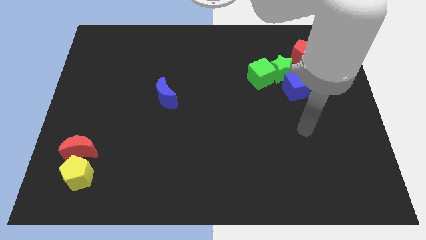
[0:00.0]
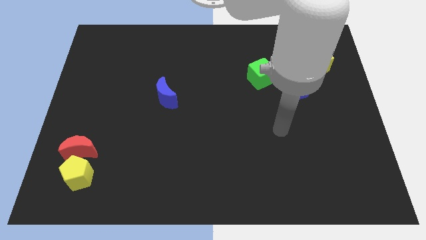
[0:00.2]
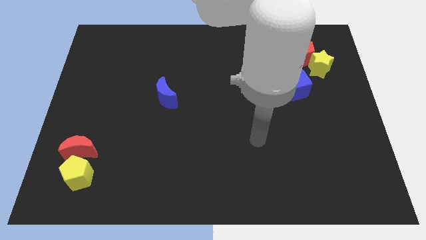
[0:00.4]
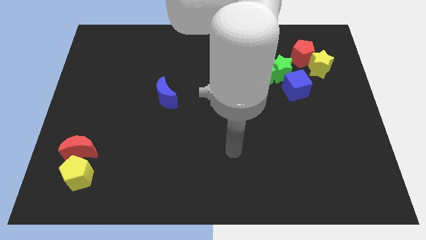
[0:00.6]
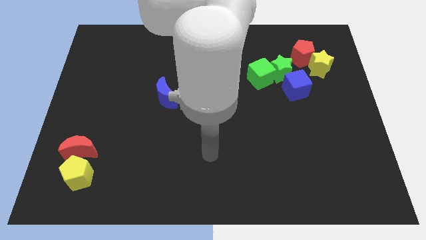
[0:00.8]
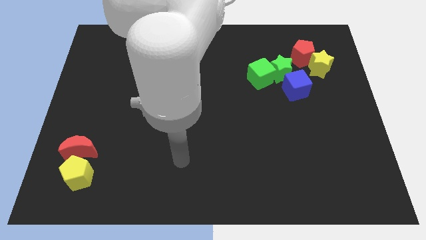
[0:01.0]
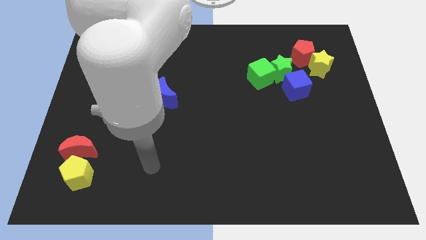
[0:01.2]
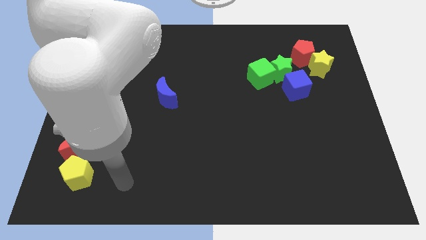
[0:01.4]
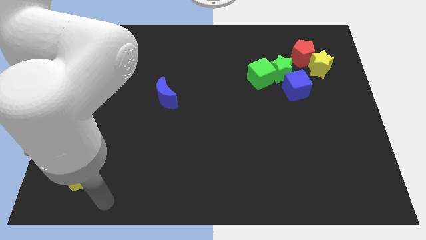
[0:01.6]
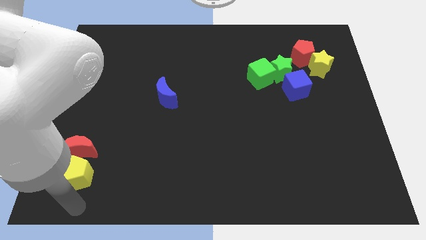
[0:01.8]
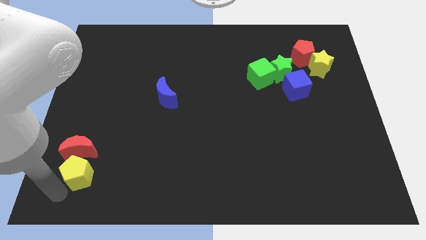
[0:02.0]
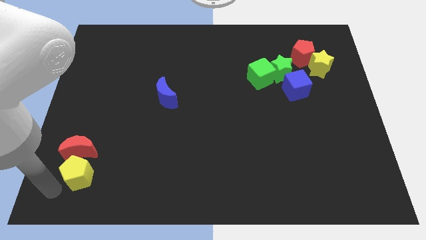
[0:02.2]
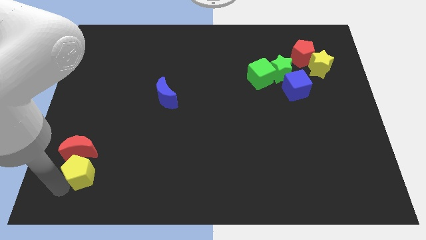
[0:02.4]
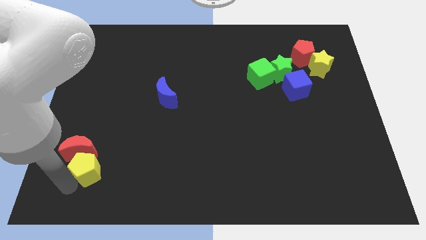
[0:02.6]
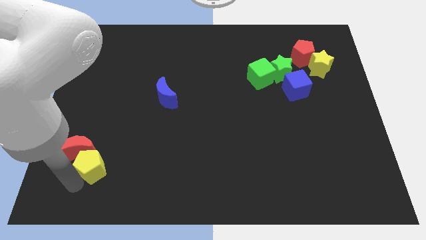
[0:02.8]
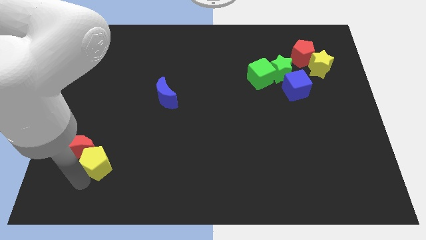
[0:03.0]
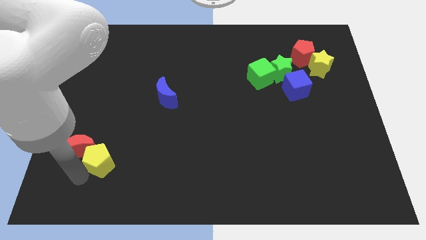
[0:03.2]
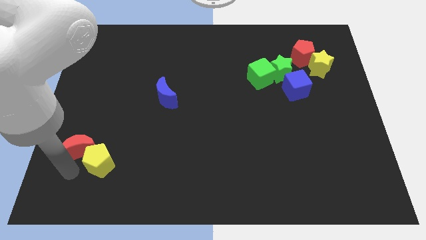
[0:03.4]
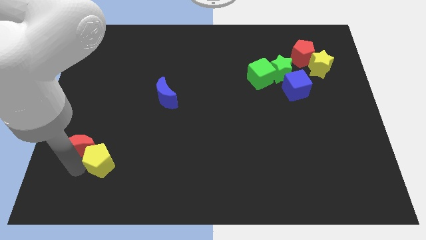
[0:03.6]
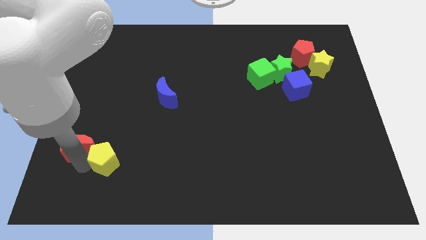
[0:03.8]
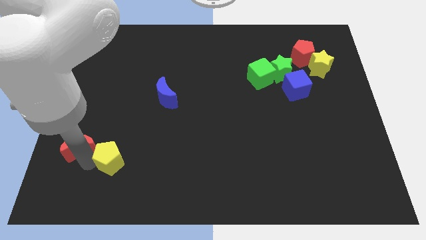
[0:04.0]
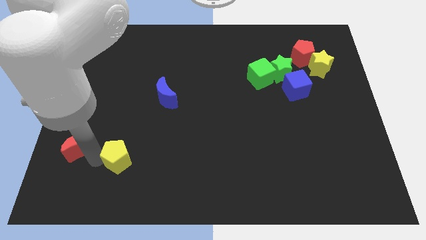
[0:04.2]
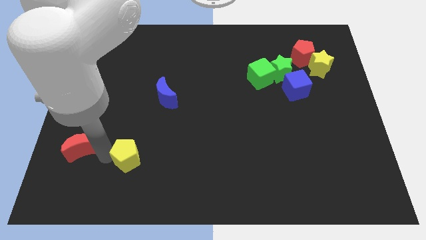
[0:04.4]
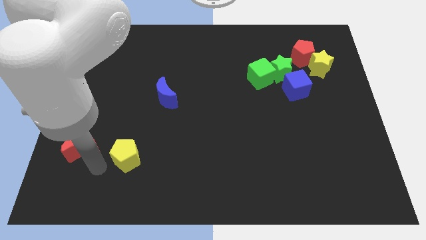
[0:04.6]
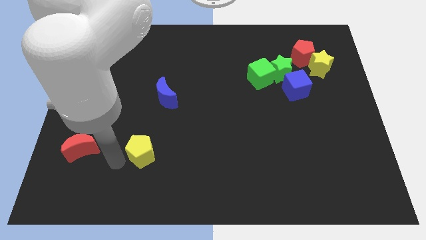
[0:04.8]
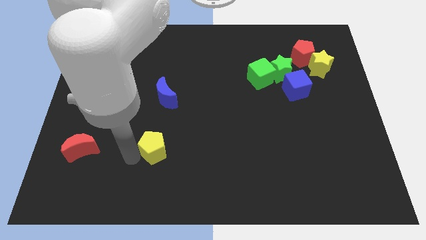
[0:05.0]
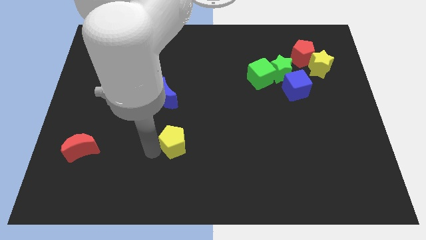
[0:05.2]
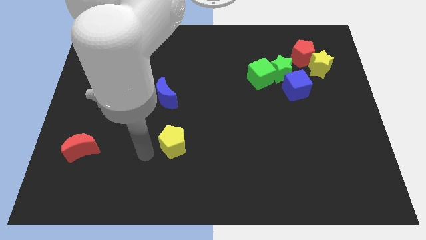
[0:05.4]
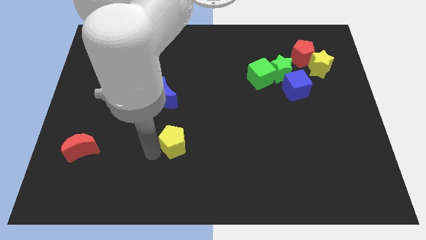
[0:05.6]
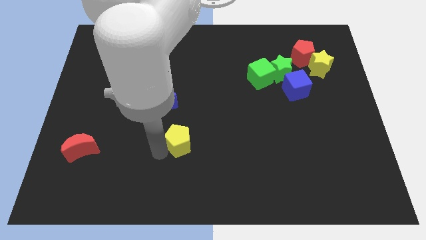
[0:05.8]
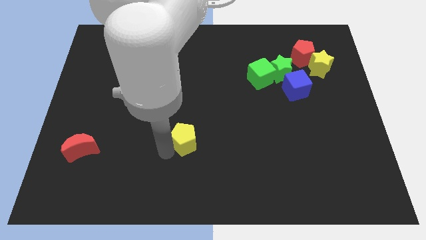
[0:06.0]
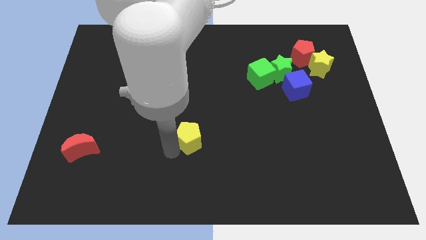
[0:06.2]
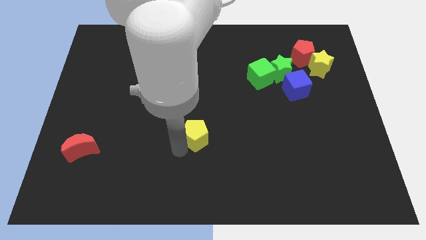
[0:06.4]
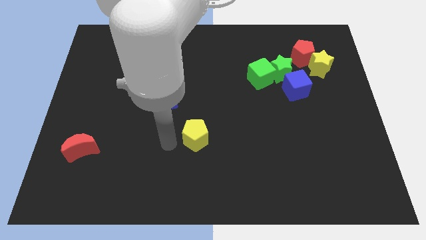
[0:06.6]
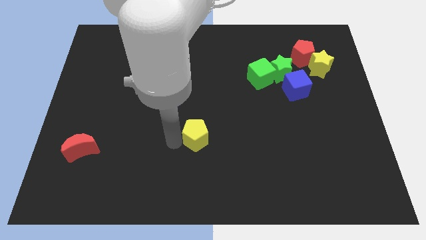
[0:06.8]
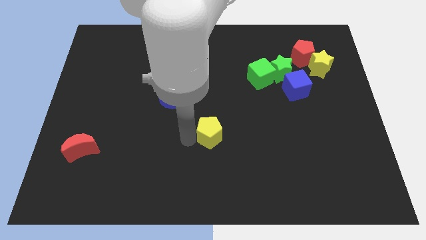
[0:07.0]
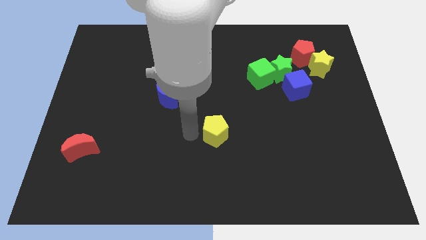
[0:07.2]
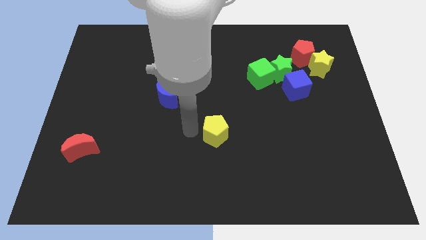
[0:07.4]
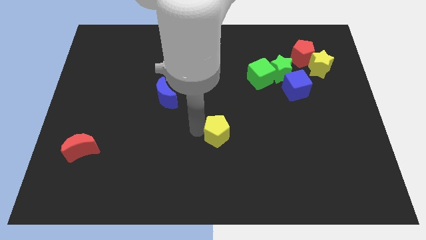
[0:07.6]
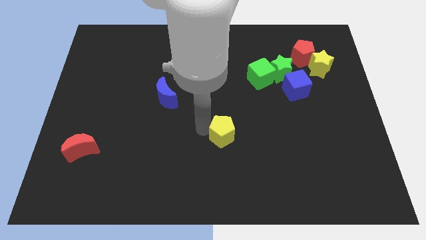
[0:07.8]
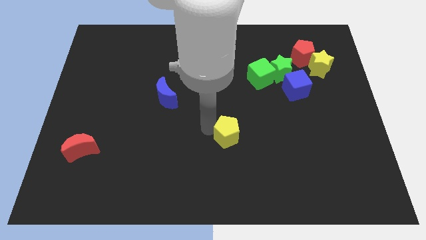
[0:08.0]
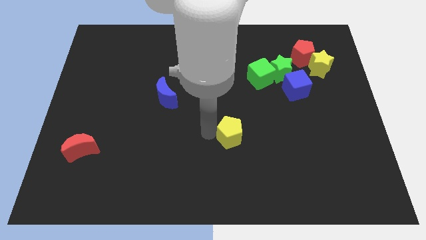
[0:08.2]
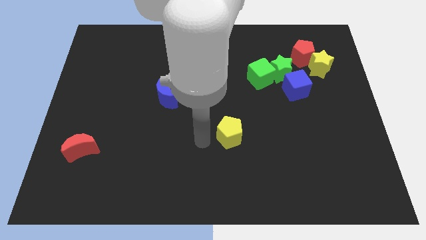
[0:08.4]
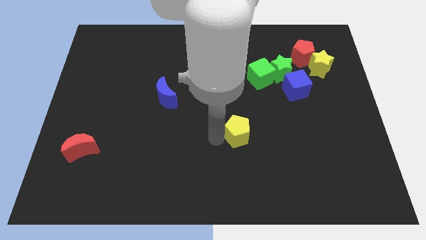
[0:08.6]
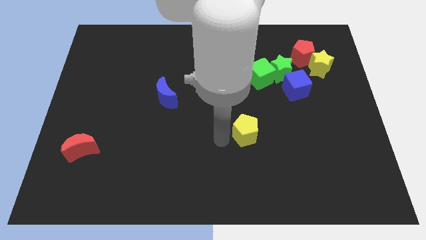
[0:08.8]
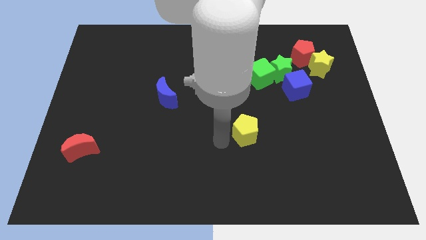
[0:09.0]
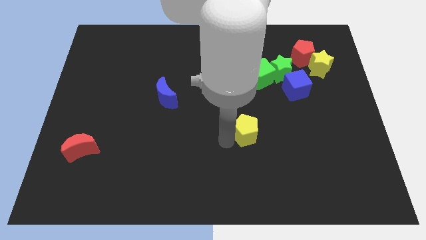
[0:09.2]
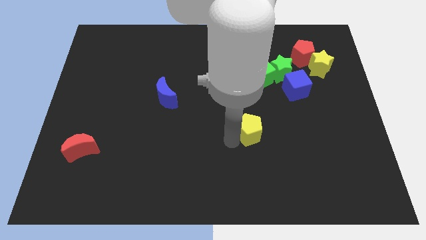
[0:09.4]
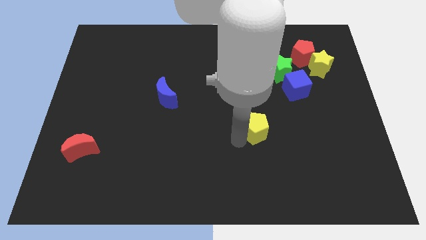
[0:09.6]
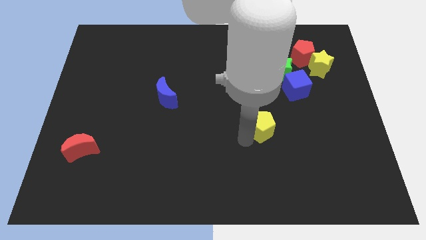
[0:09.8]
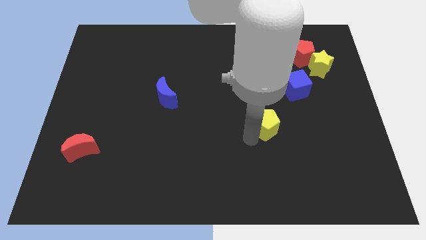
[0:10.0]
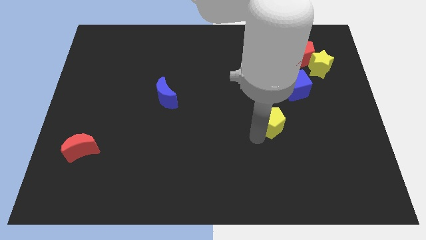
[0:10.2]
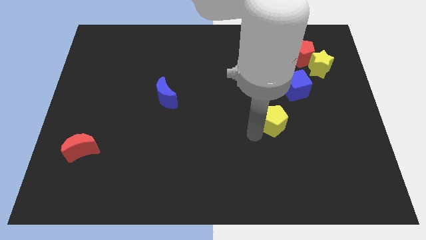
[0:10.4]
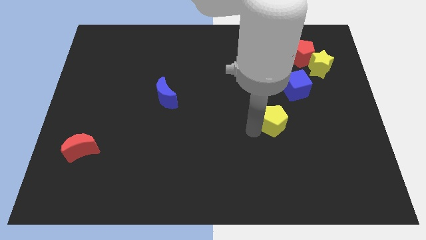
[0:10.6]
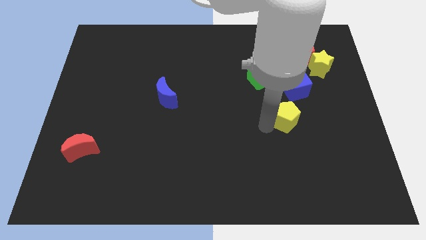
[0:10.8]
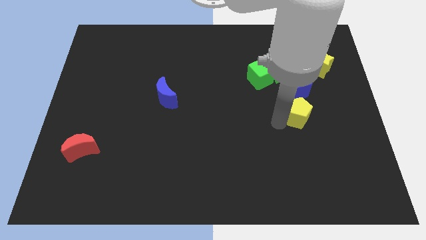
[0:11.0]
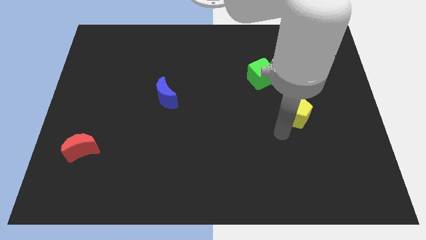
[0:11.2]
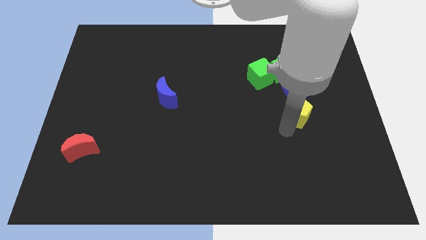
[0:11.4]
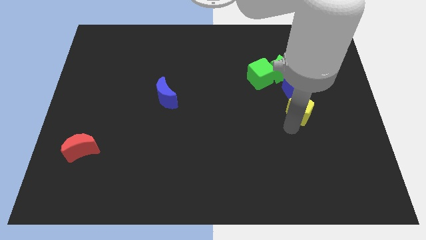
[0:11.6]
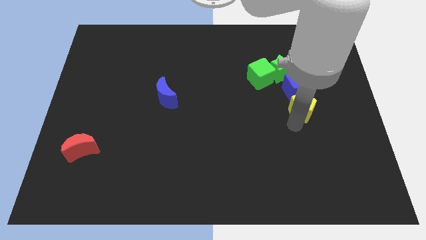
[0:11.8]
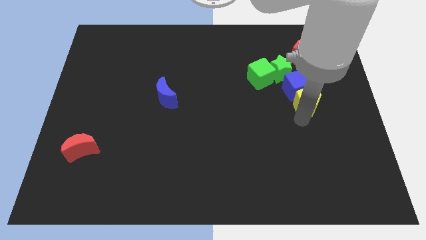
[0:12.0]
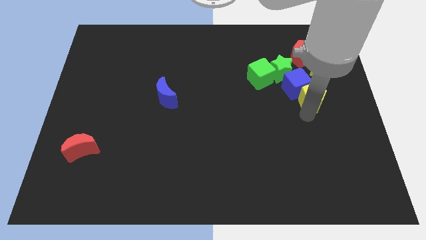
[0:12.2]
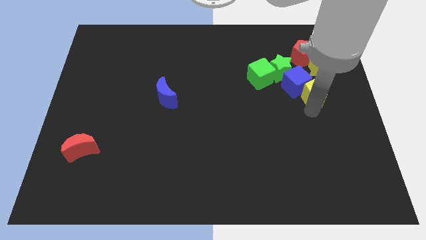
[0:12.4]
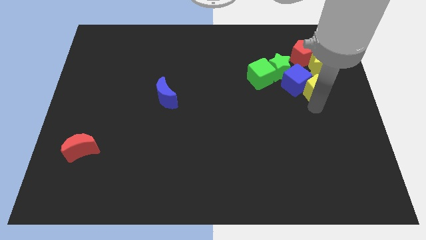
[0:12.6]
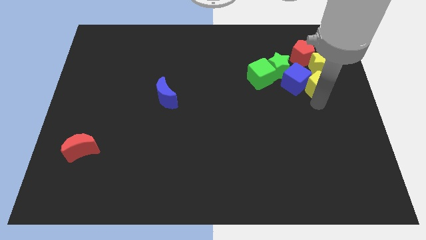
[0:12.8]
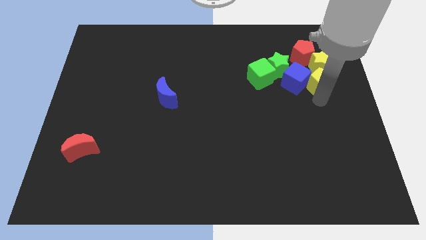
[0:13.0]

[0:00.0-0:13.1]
move the yellow pentagon close to the yellow star
